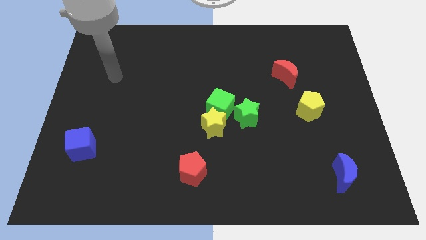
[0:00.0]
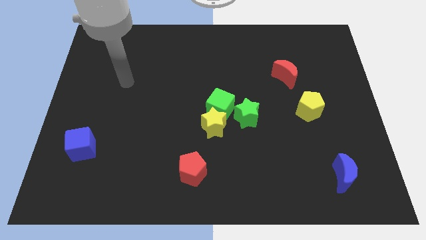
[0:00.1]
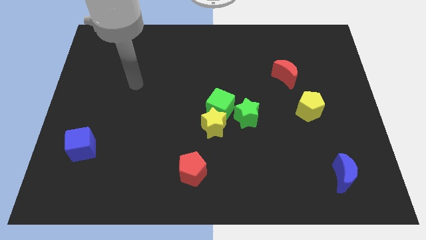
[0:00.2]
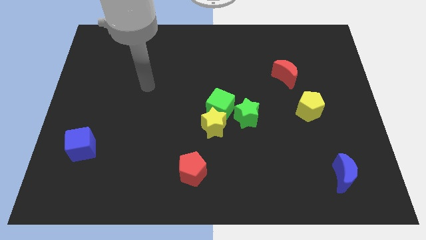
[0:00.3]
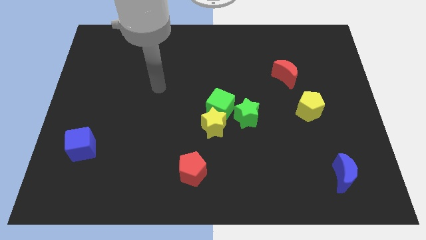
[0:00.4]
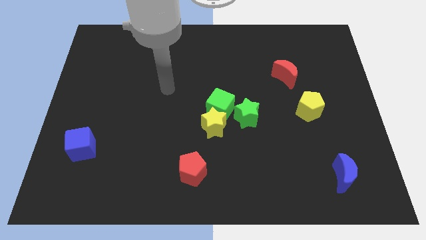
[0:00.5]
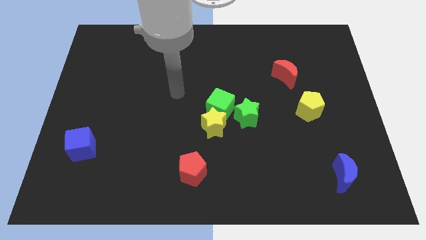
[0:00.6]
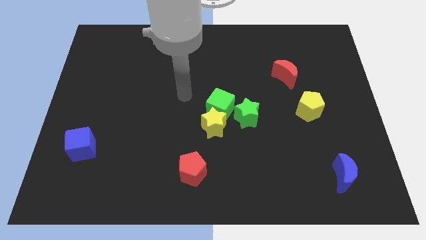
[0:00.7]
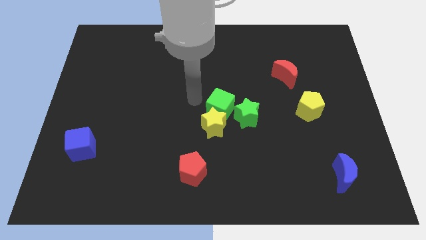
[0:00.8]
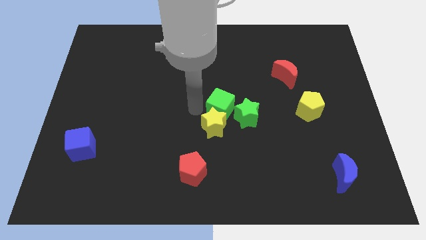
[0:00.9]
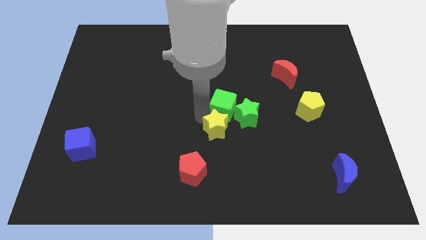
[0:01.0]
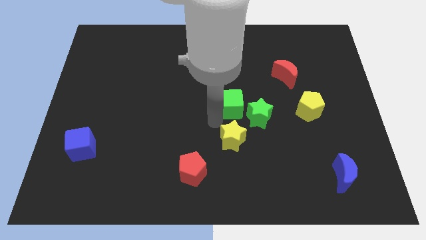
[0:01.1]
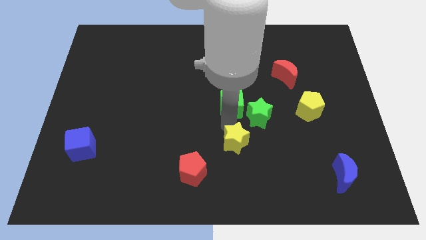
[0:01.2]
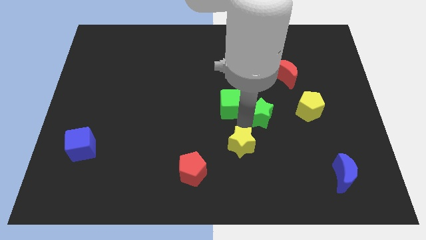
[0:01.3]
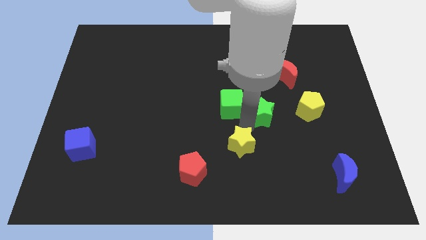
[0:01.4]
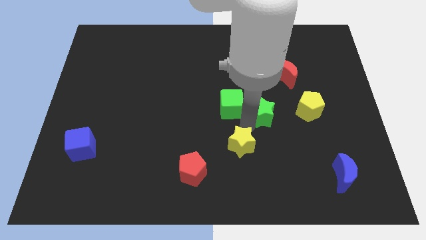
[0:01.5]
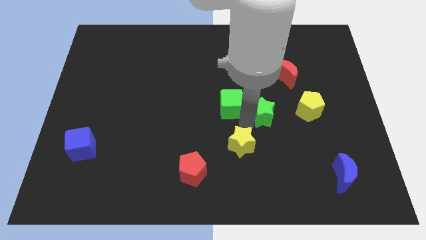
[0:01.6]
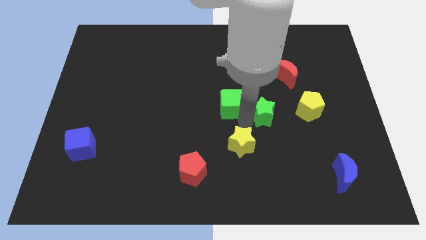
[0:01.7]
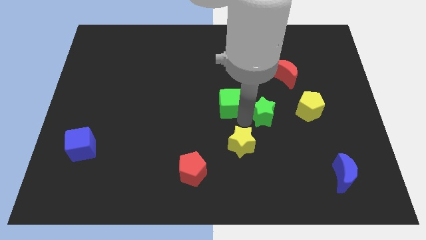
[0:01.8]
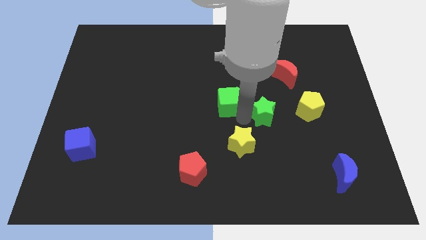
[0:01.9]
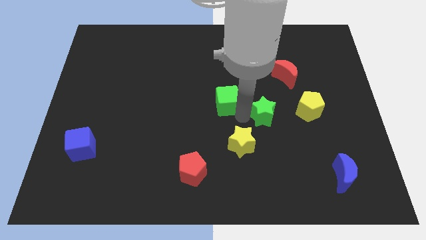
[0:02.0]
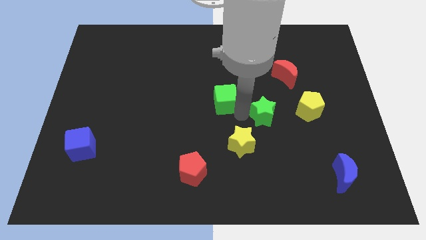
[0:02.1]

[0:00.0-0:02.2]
pull the green cube apart from the yellow star and green star

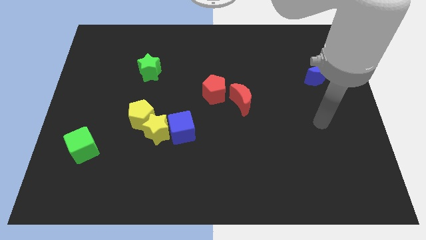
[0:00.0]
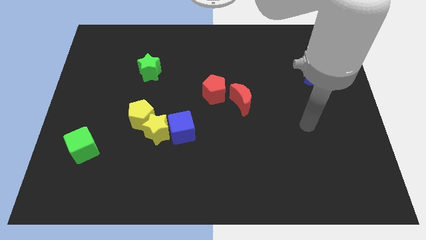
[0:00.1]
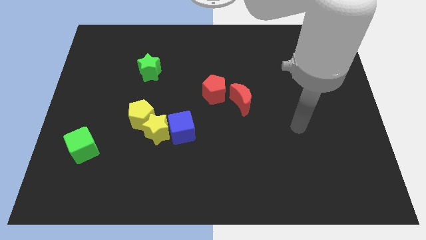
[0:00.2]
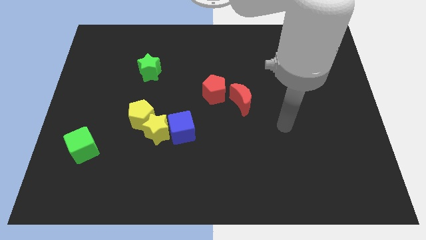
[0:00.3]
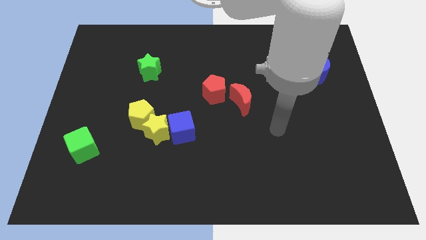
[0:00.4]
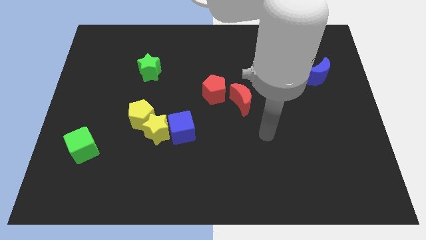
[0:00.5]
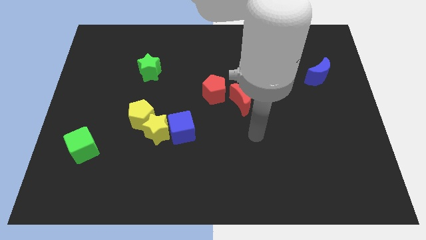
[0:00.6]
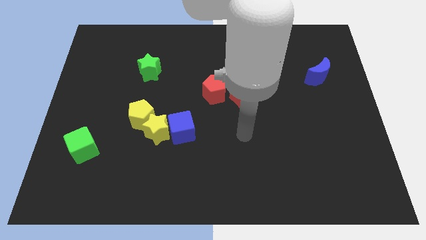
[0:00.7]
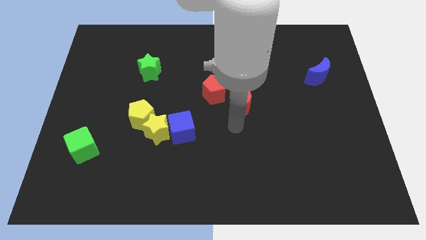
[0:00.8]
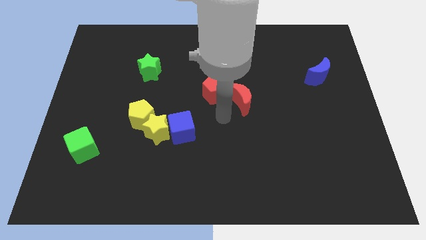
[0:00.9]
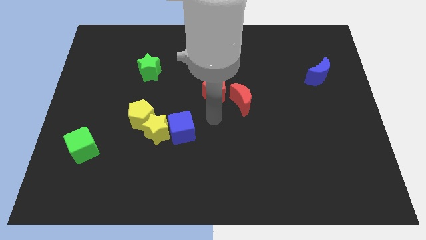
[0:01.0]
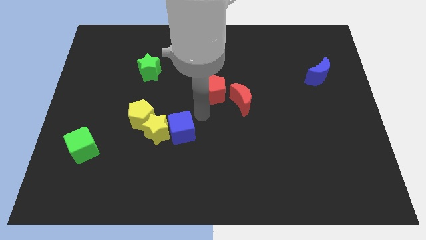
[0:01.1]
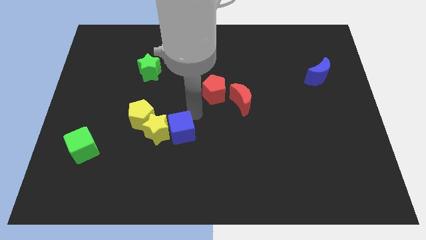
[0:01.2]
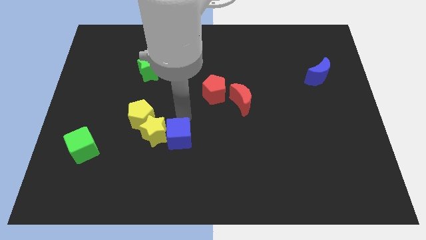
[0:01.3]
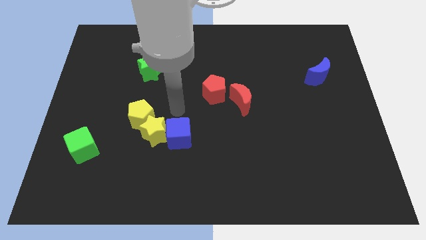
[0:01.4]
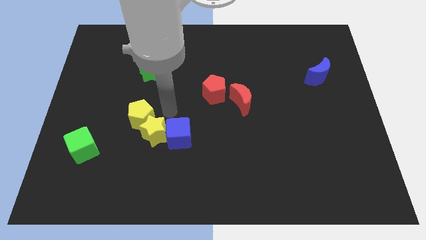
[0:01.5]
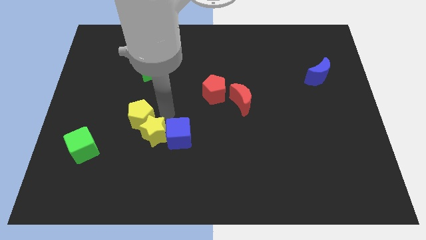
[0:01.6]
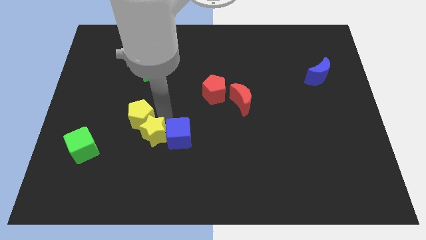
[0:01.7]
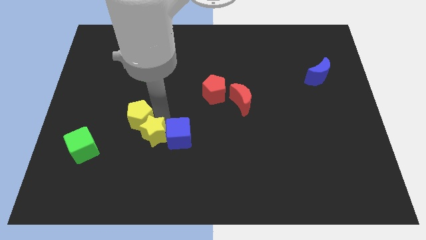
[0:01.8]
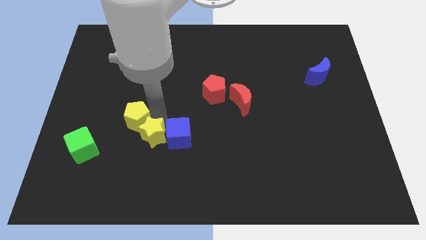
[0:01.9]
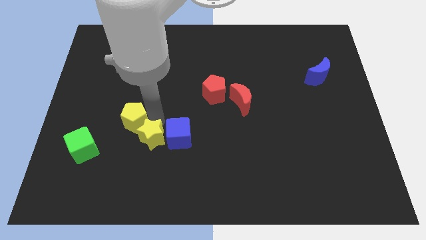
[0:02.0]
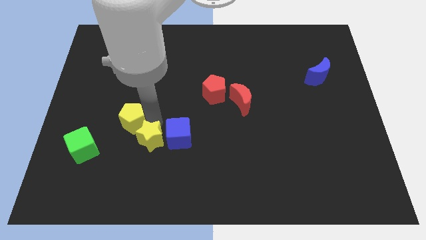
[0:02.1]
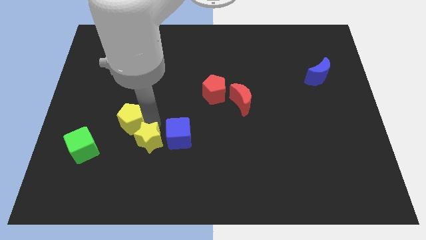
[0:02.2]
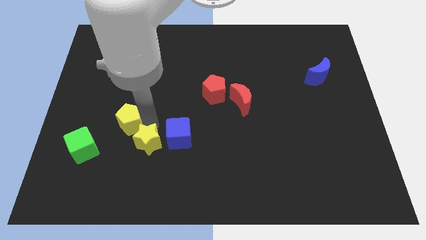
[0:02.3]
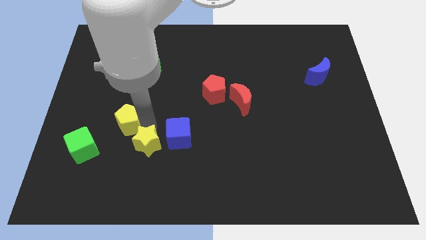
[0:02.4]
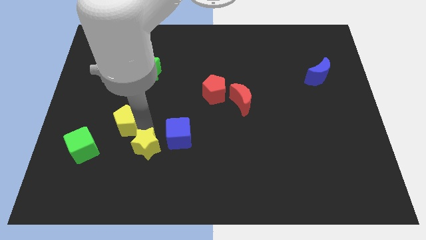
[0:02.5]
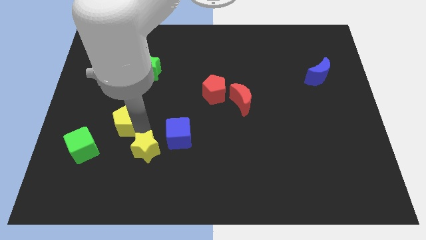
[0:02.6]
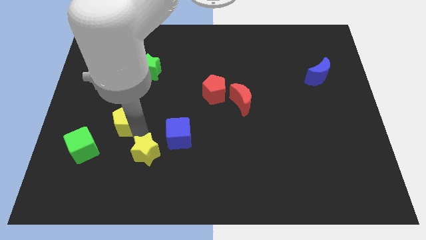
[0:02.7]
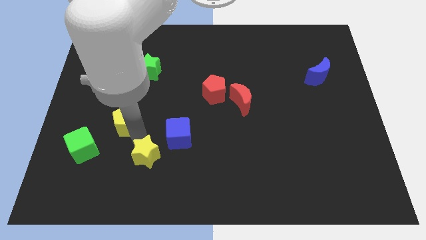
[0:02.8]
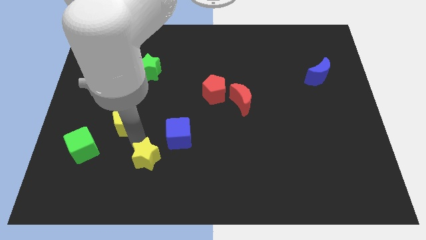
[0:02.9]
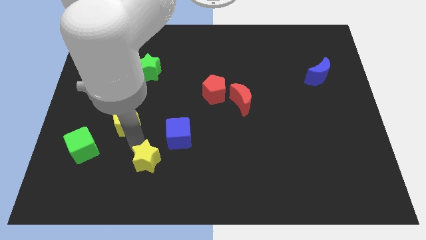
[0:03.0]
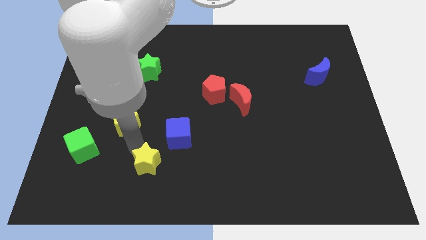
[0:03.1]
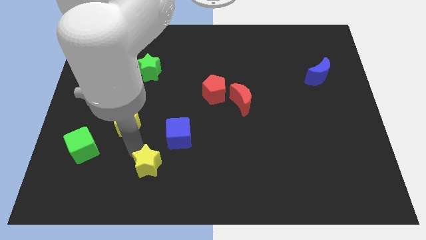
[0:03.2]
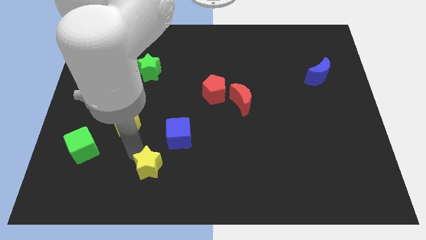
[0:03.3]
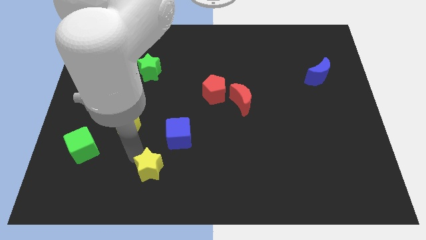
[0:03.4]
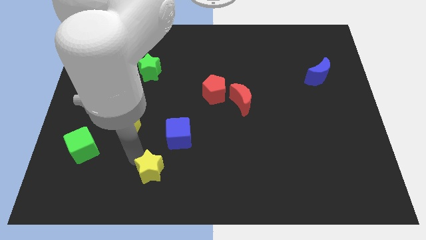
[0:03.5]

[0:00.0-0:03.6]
move the yellow star away from the yellow pentagon and blue cube

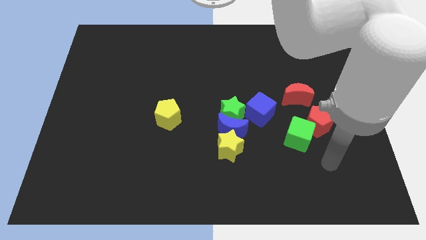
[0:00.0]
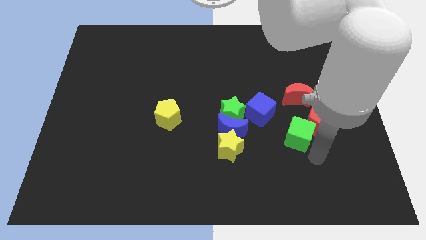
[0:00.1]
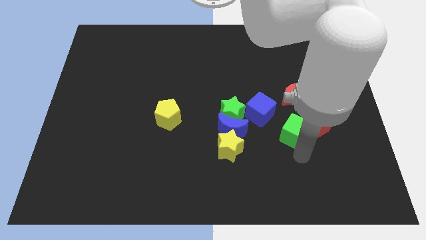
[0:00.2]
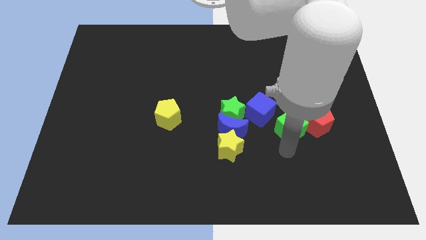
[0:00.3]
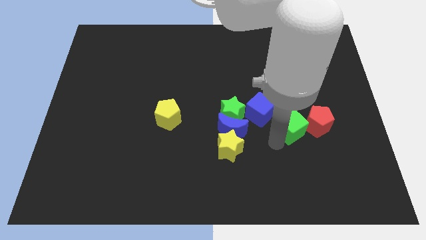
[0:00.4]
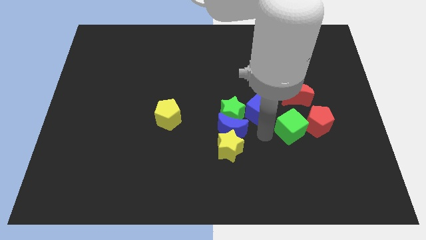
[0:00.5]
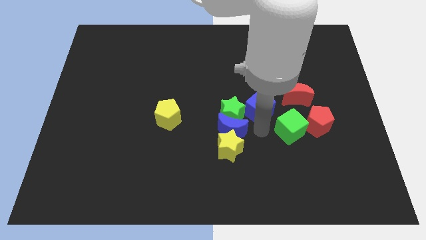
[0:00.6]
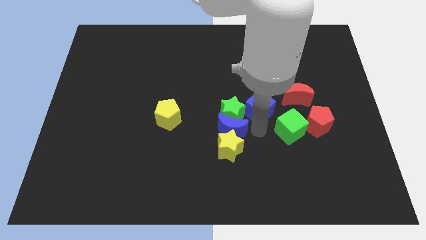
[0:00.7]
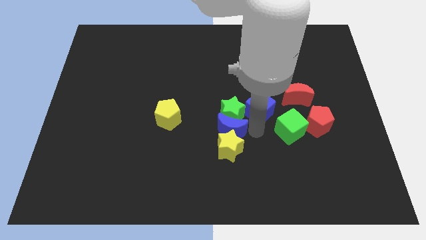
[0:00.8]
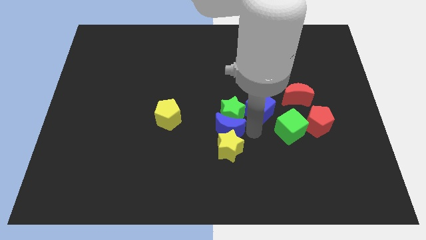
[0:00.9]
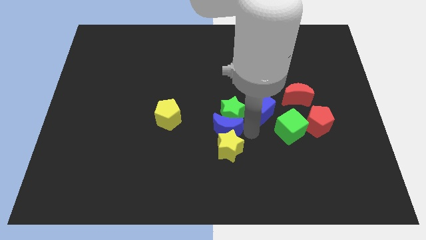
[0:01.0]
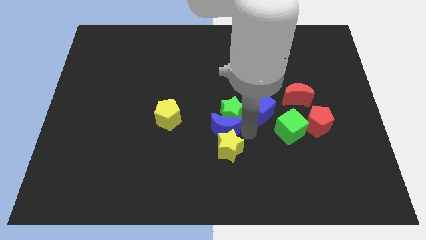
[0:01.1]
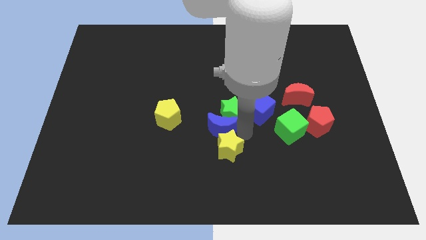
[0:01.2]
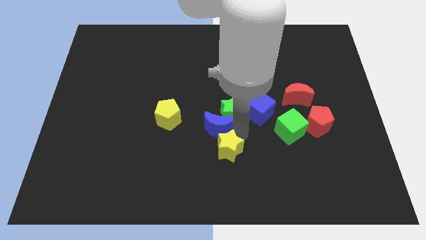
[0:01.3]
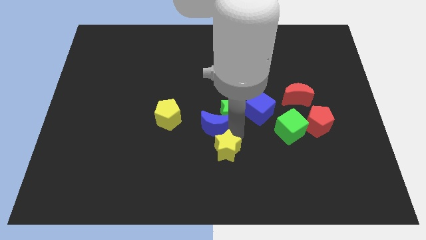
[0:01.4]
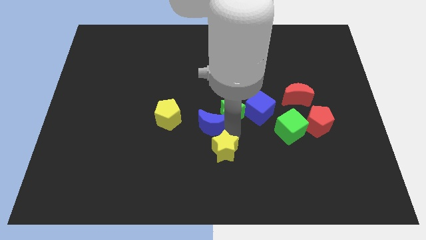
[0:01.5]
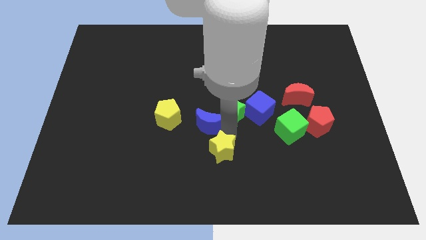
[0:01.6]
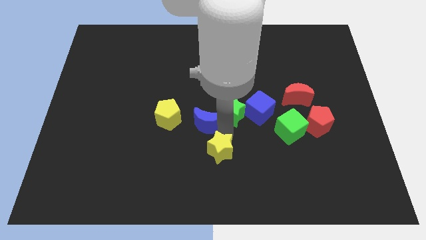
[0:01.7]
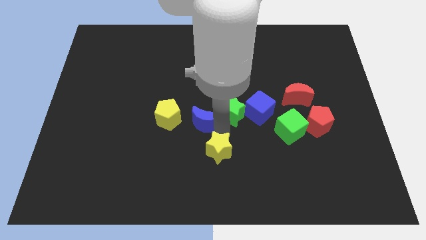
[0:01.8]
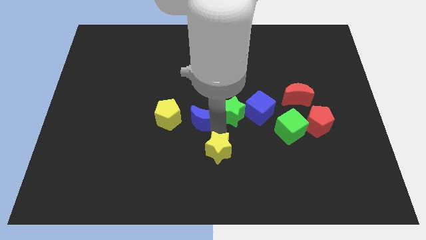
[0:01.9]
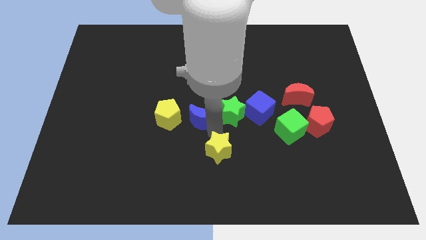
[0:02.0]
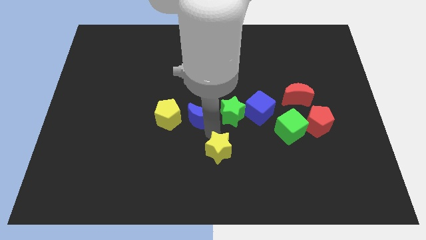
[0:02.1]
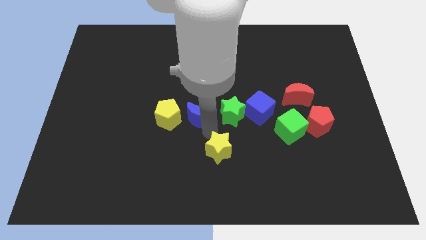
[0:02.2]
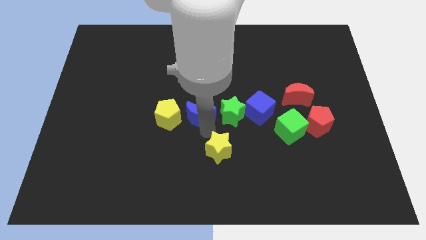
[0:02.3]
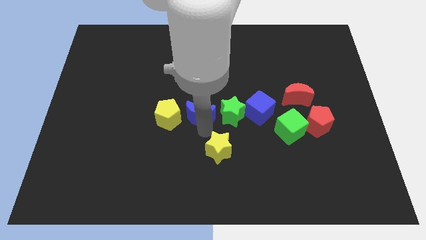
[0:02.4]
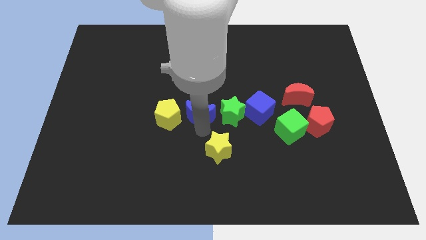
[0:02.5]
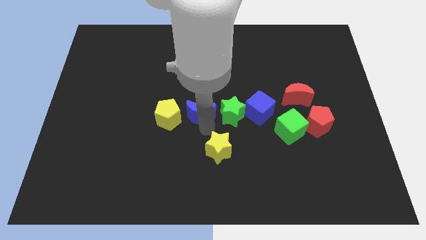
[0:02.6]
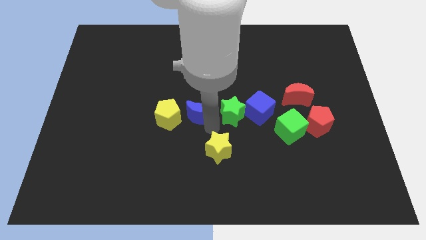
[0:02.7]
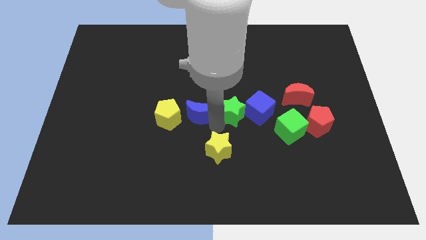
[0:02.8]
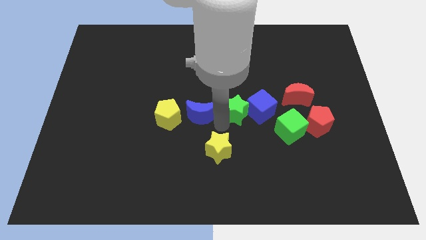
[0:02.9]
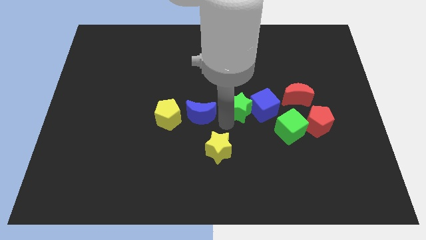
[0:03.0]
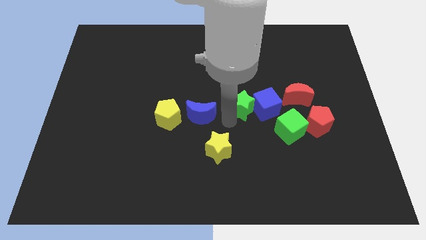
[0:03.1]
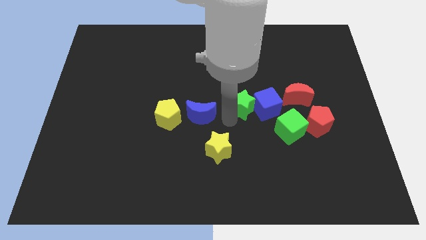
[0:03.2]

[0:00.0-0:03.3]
pull the blue moon apart from the clump

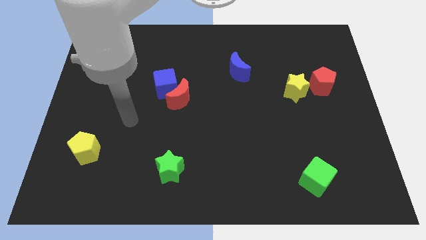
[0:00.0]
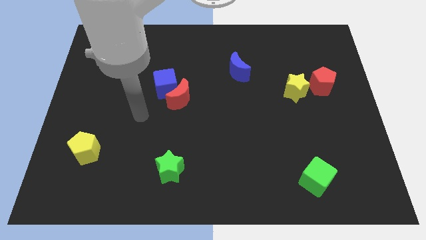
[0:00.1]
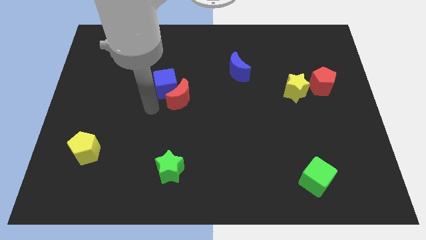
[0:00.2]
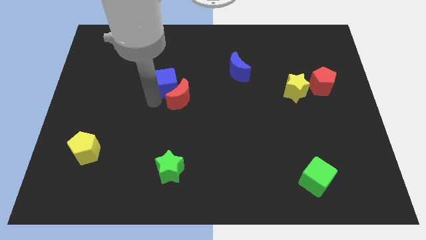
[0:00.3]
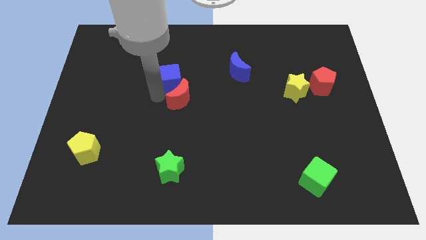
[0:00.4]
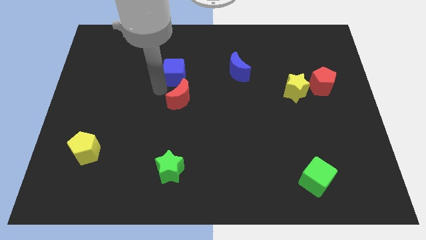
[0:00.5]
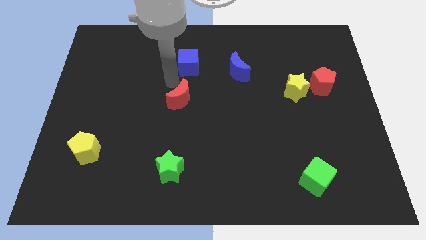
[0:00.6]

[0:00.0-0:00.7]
separate the red moon from the blue cube
